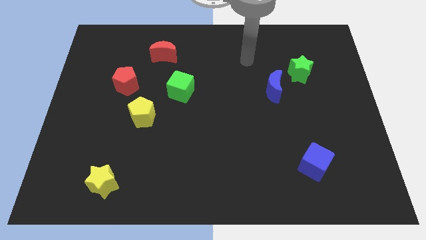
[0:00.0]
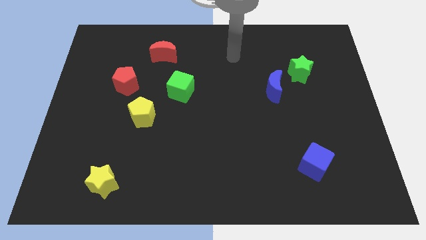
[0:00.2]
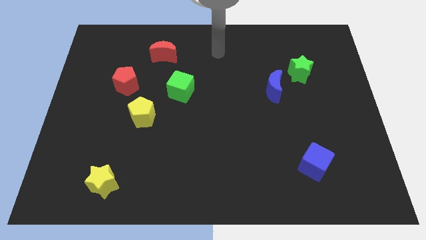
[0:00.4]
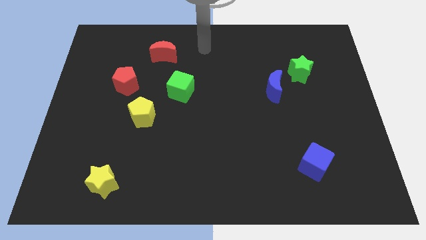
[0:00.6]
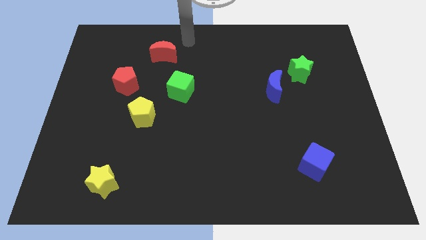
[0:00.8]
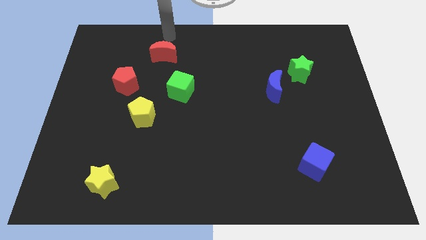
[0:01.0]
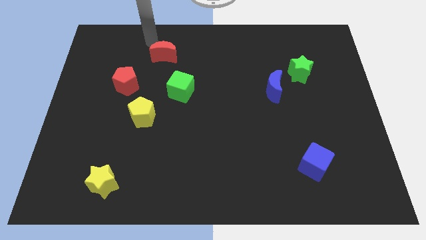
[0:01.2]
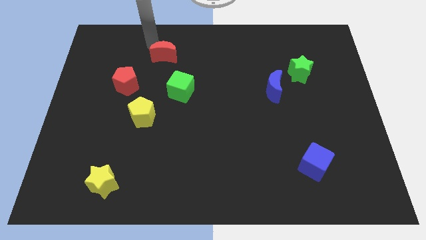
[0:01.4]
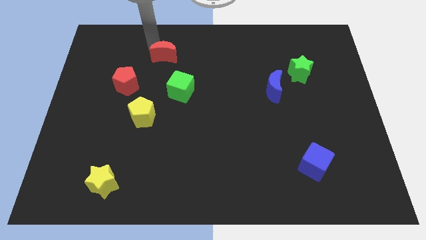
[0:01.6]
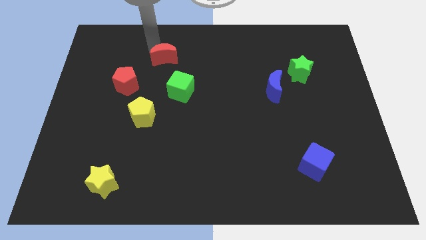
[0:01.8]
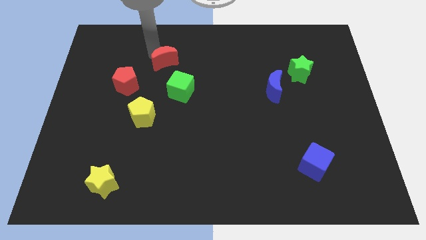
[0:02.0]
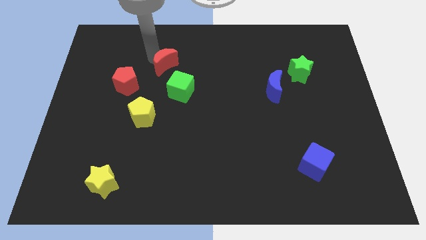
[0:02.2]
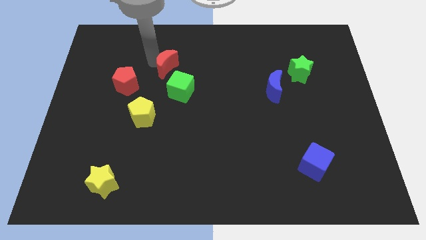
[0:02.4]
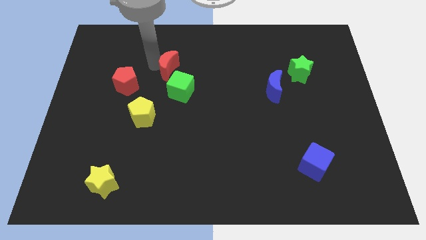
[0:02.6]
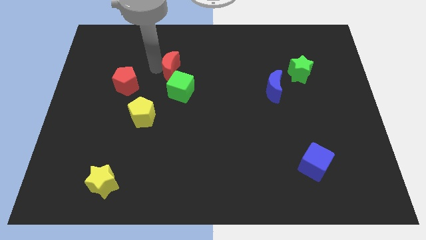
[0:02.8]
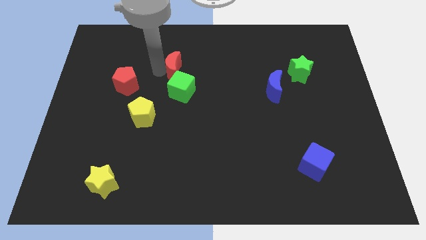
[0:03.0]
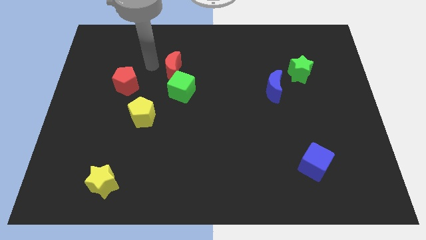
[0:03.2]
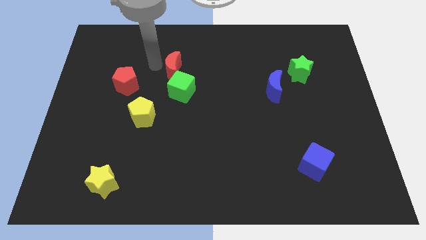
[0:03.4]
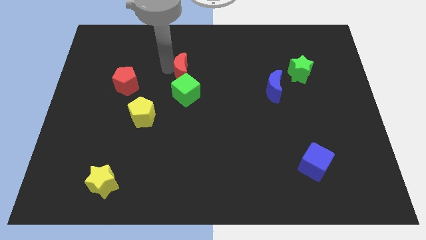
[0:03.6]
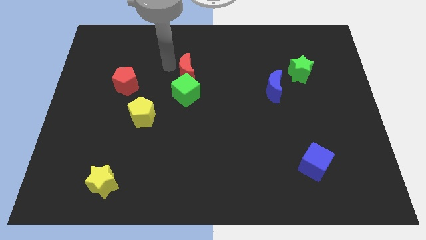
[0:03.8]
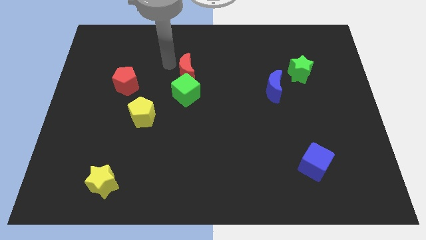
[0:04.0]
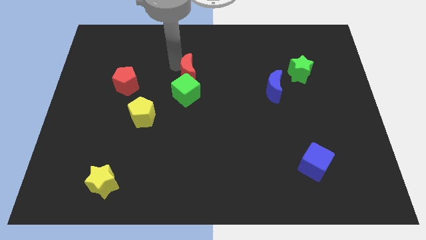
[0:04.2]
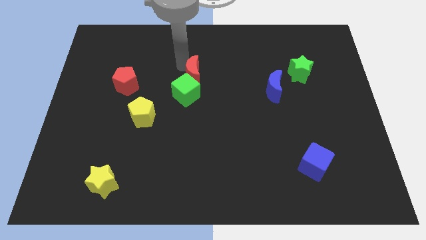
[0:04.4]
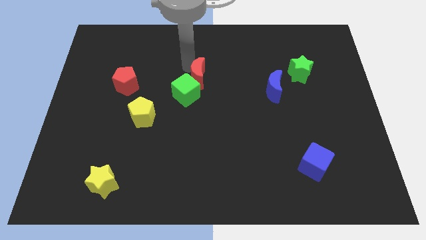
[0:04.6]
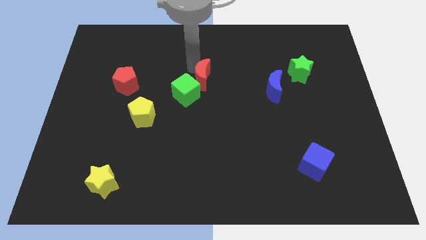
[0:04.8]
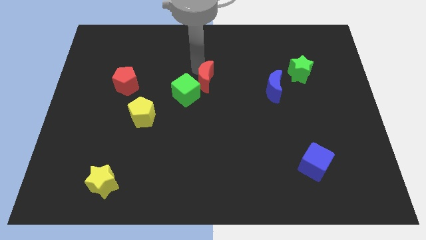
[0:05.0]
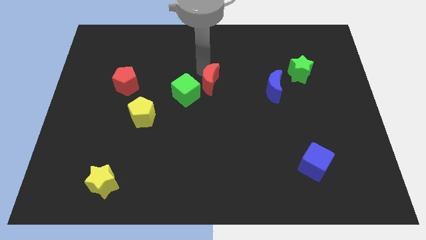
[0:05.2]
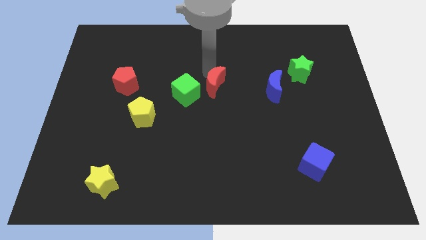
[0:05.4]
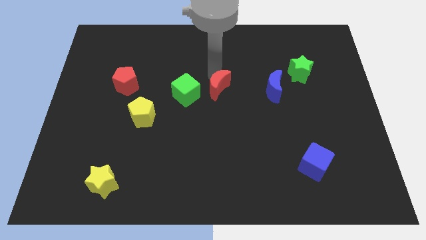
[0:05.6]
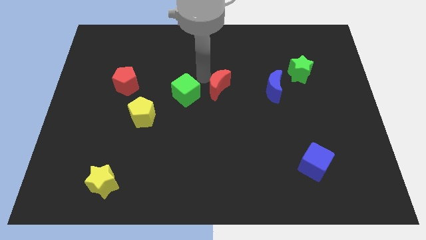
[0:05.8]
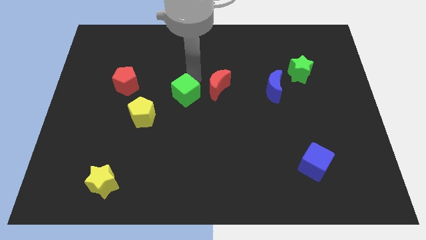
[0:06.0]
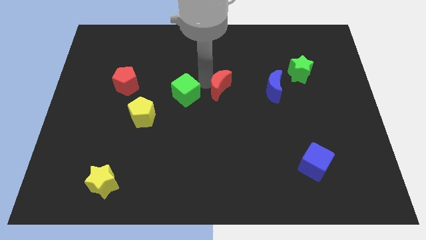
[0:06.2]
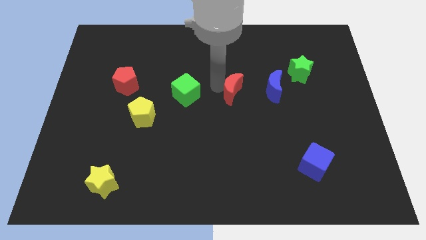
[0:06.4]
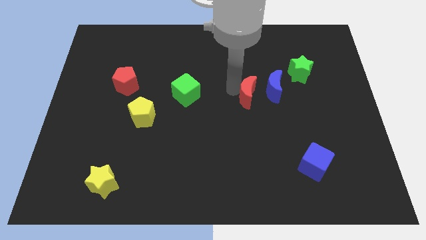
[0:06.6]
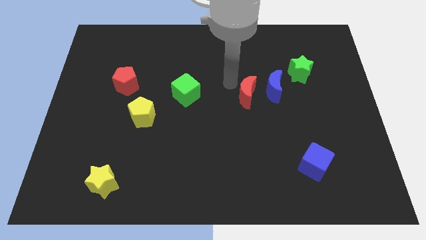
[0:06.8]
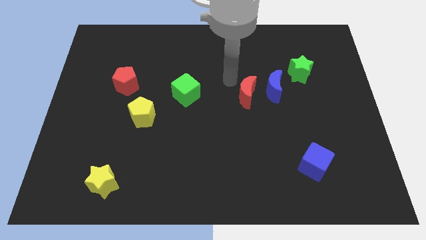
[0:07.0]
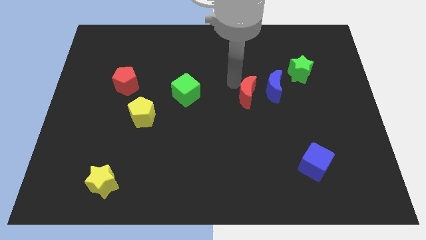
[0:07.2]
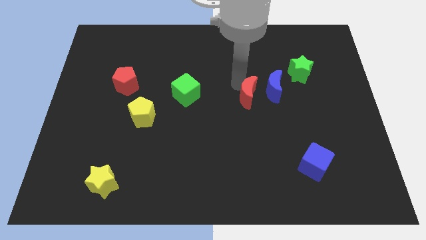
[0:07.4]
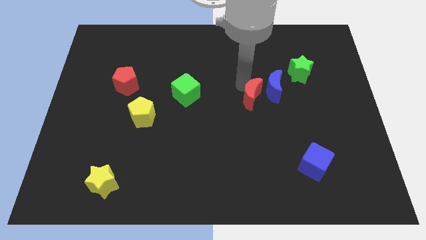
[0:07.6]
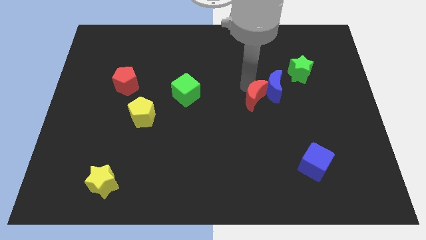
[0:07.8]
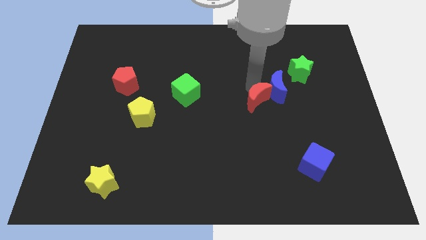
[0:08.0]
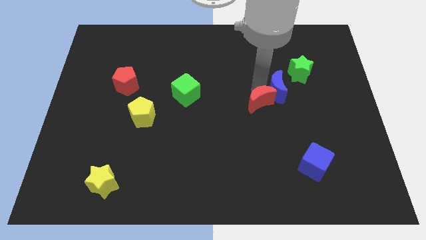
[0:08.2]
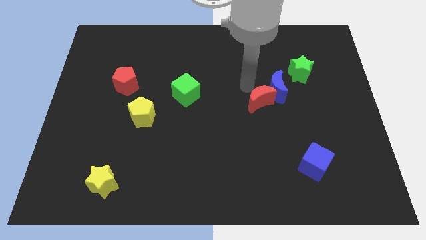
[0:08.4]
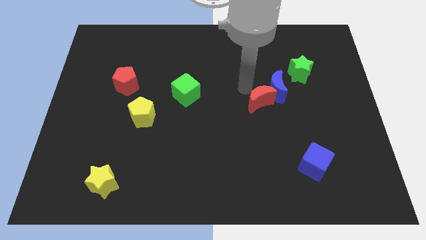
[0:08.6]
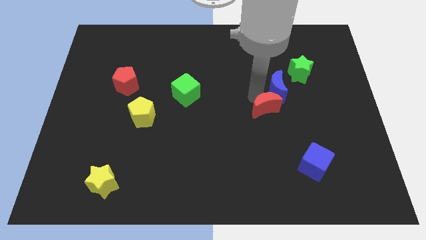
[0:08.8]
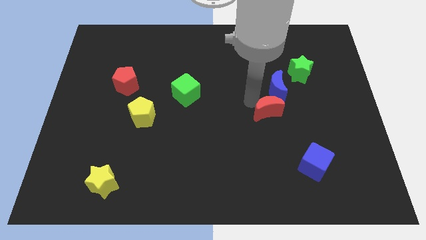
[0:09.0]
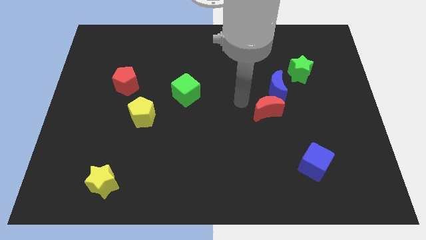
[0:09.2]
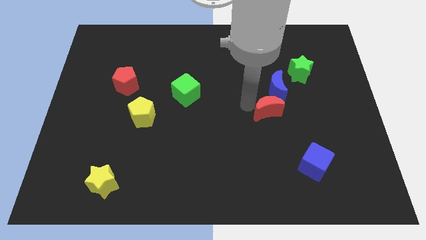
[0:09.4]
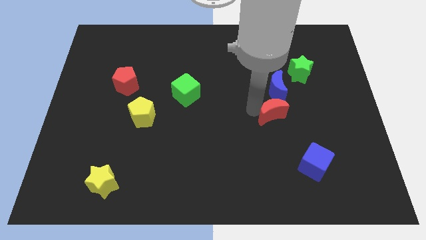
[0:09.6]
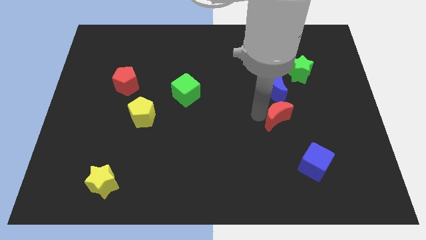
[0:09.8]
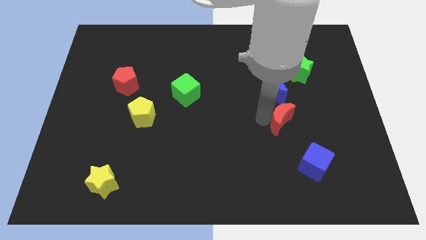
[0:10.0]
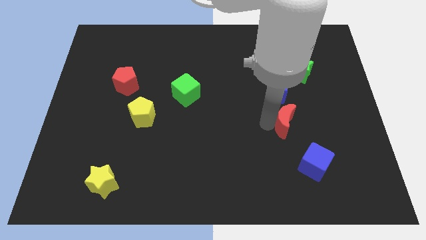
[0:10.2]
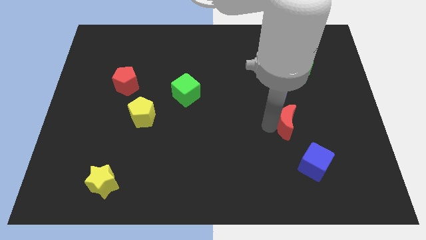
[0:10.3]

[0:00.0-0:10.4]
slide the red moon above the blue cube

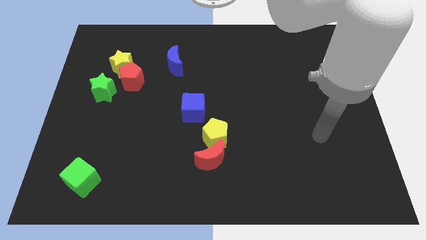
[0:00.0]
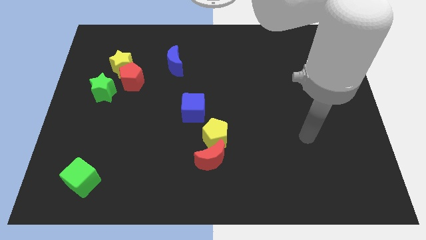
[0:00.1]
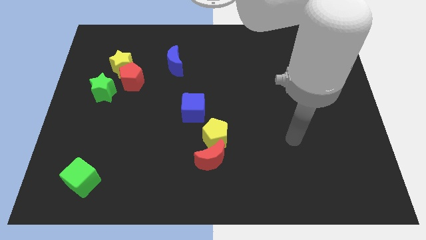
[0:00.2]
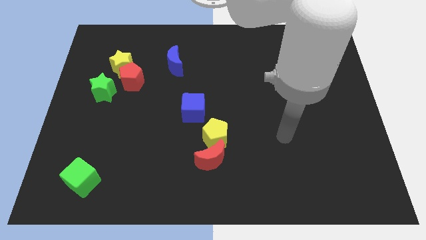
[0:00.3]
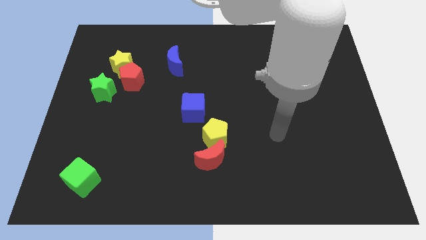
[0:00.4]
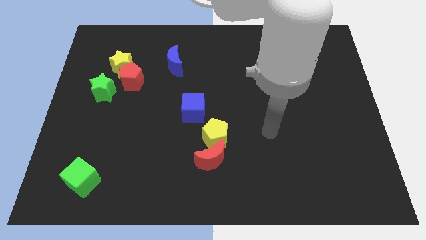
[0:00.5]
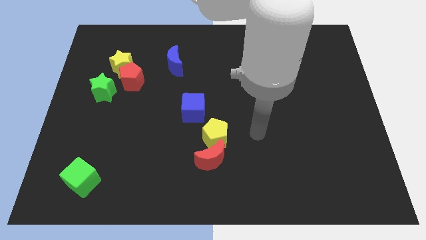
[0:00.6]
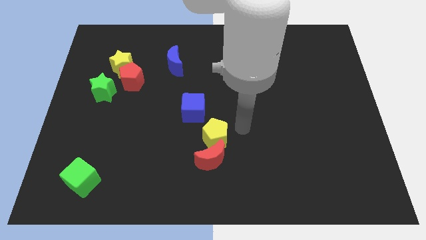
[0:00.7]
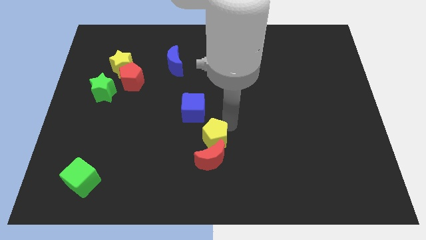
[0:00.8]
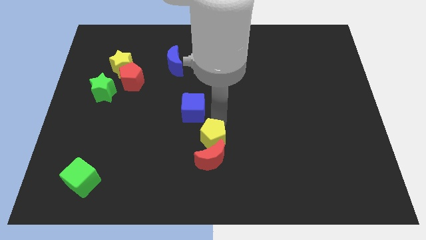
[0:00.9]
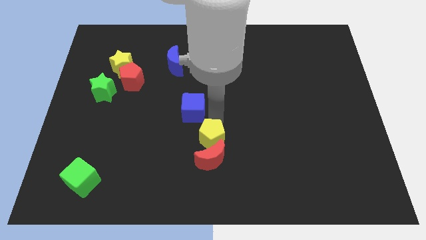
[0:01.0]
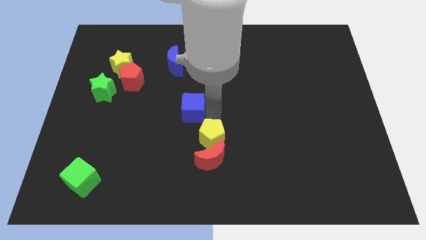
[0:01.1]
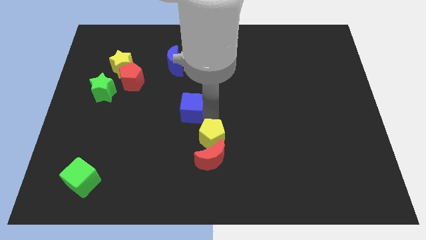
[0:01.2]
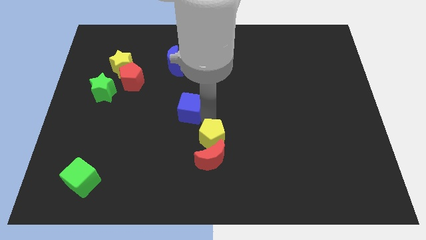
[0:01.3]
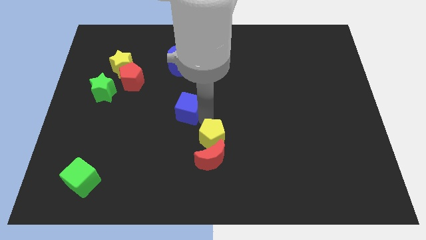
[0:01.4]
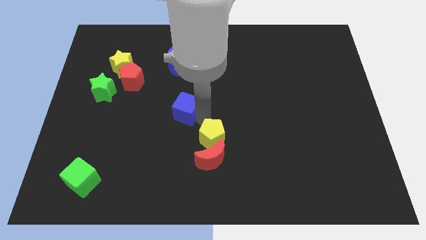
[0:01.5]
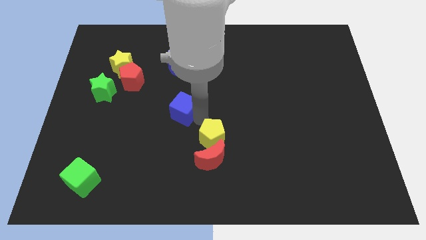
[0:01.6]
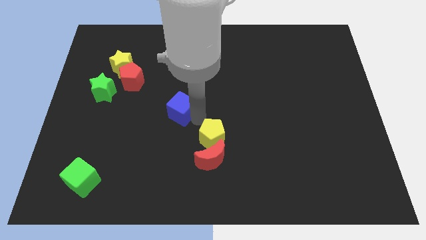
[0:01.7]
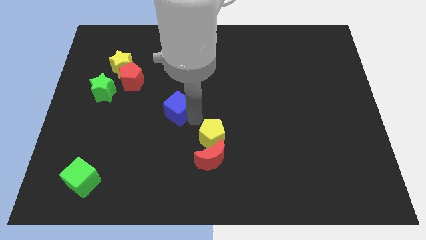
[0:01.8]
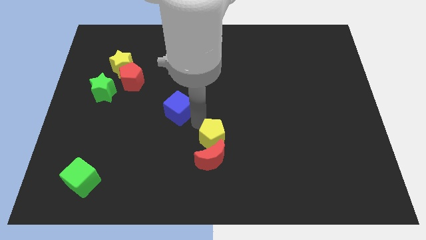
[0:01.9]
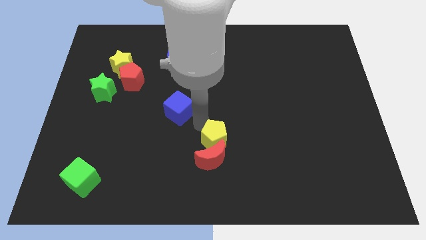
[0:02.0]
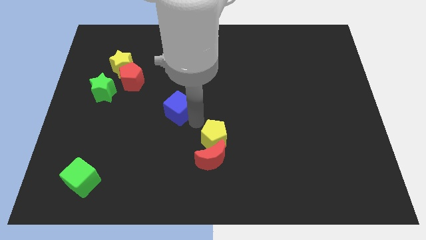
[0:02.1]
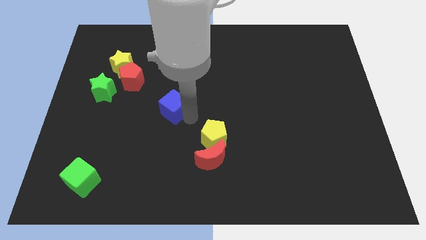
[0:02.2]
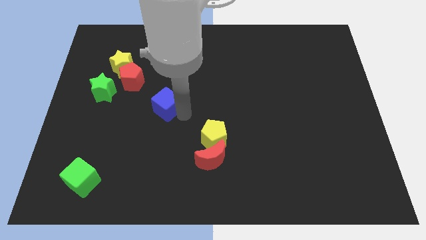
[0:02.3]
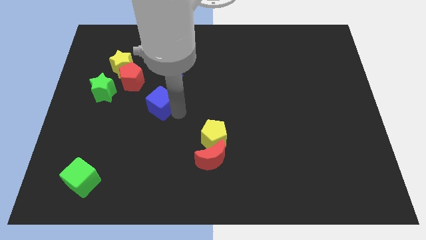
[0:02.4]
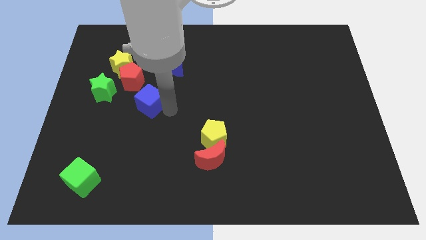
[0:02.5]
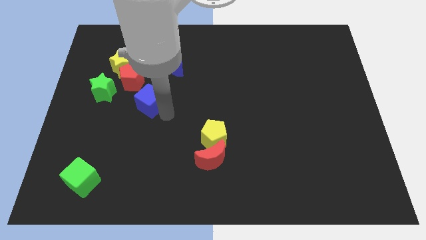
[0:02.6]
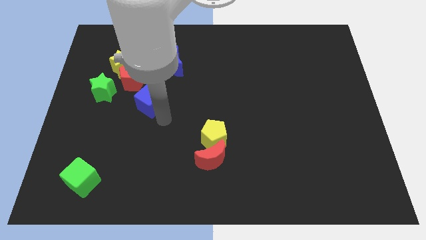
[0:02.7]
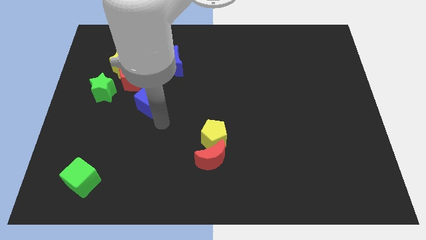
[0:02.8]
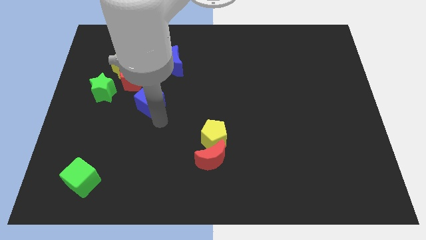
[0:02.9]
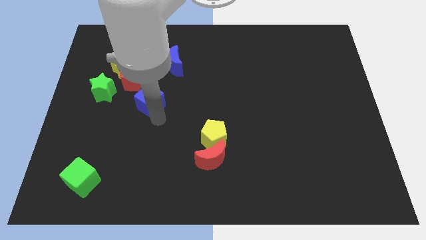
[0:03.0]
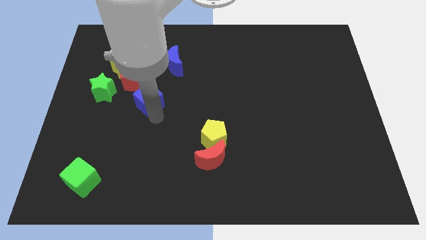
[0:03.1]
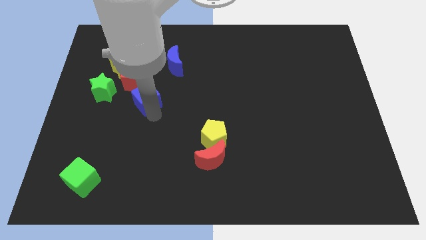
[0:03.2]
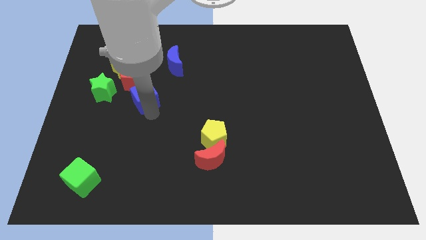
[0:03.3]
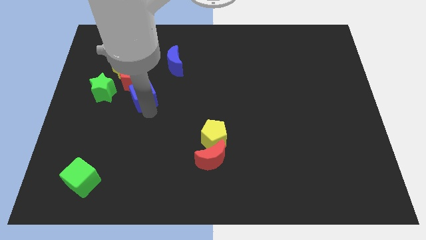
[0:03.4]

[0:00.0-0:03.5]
put the blue cube diagonally down and to the right of the yellow star
